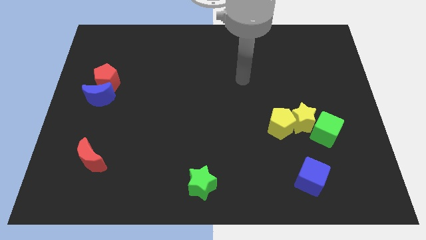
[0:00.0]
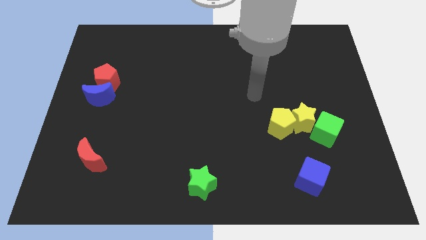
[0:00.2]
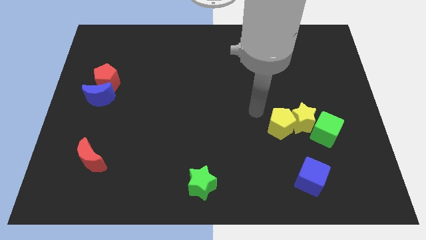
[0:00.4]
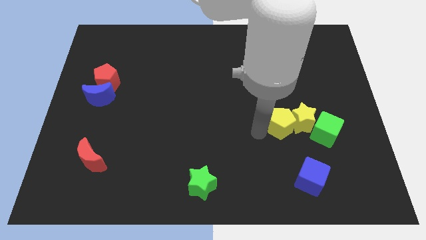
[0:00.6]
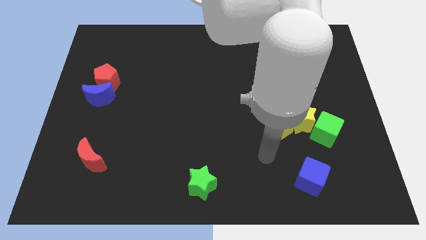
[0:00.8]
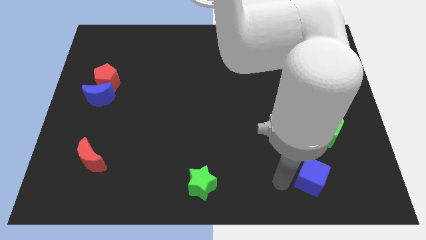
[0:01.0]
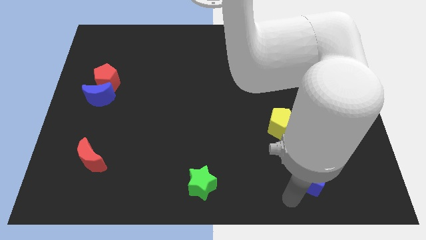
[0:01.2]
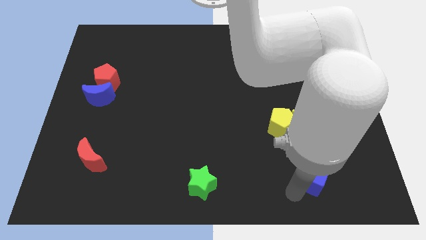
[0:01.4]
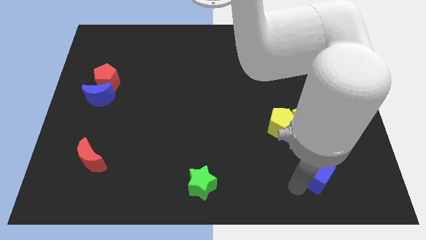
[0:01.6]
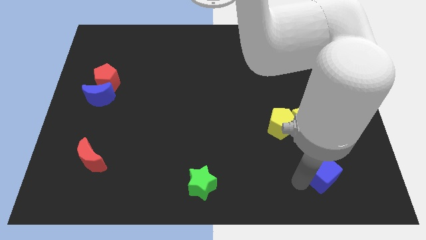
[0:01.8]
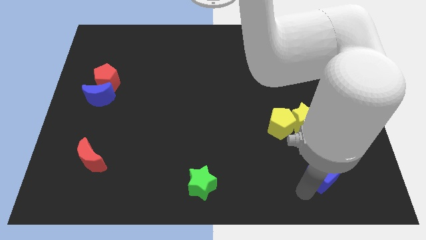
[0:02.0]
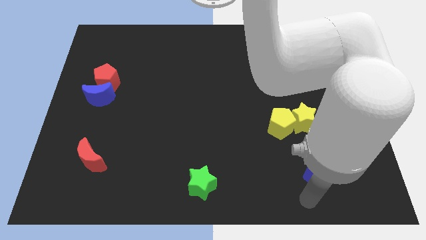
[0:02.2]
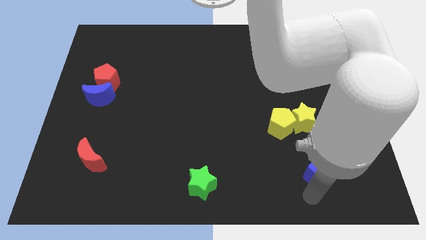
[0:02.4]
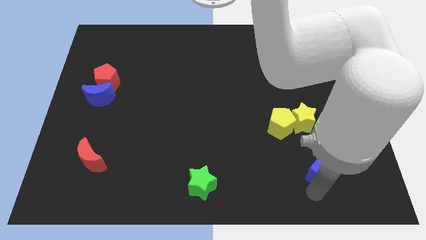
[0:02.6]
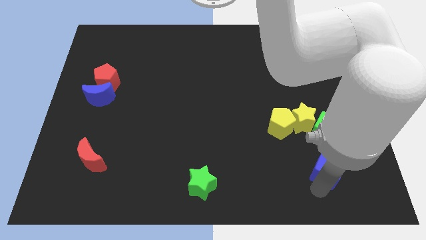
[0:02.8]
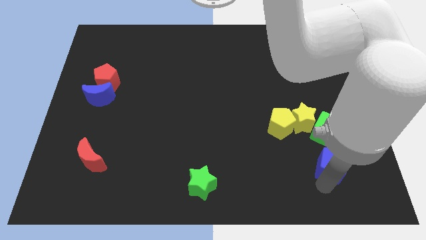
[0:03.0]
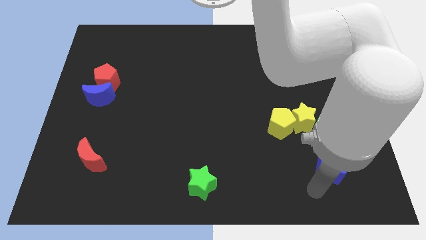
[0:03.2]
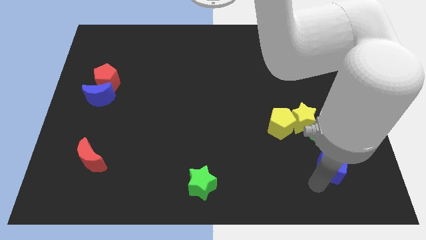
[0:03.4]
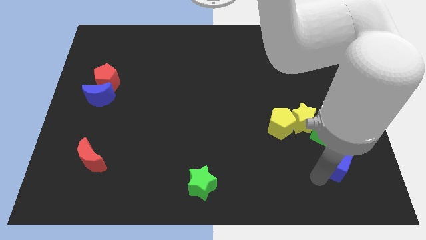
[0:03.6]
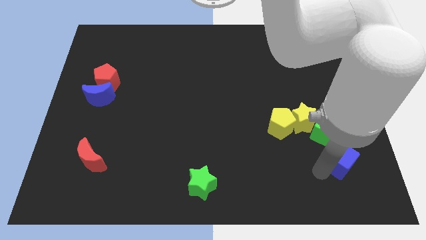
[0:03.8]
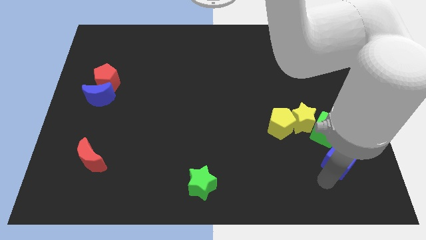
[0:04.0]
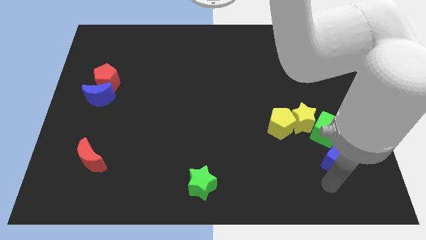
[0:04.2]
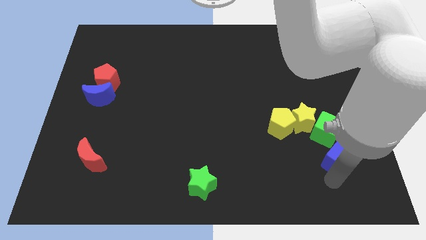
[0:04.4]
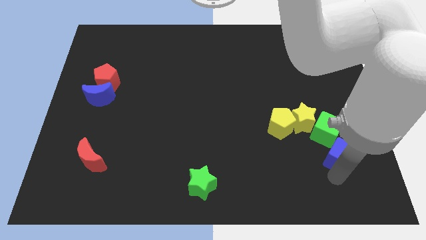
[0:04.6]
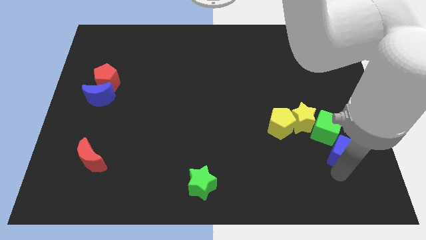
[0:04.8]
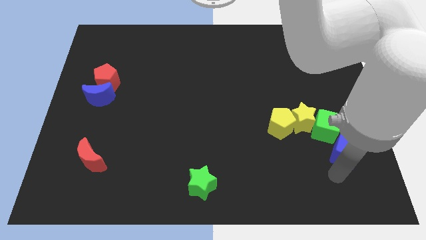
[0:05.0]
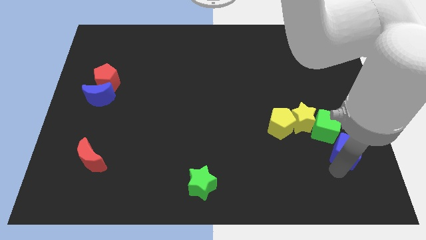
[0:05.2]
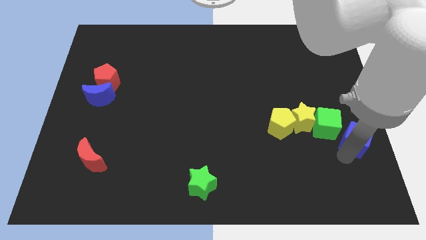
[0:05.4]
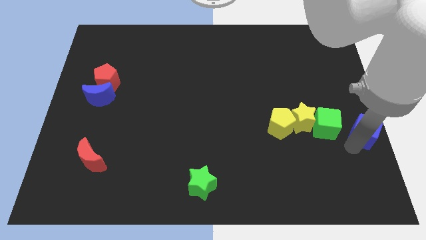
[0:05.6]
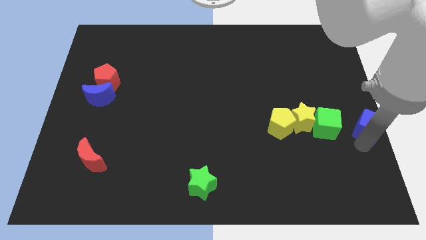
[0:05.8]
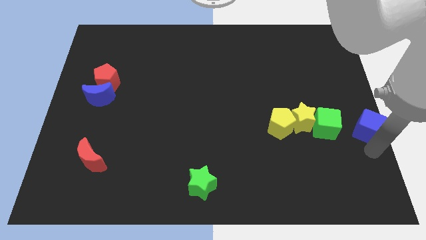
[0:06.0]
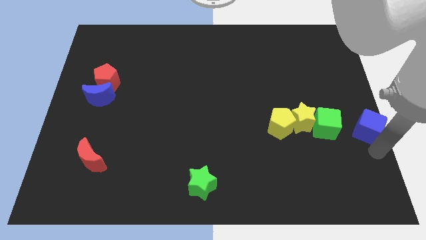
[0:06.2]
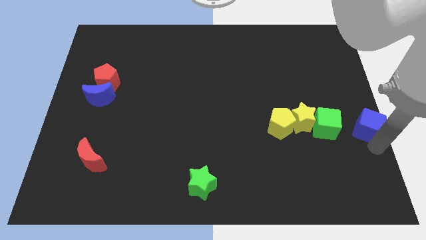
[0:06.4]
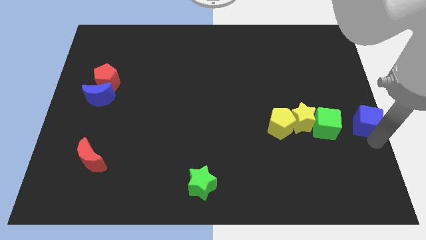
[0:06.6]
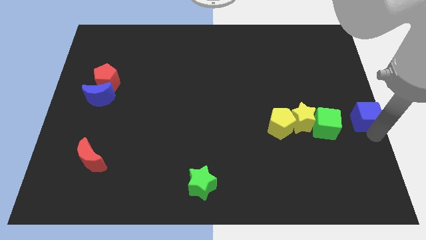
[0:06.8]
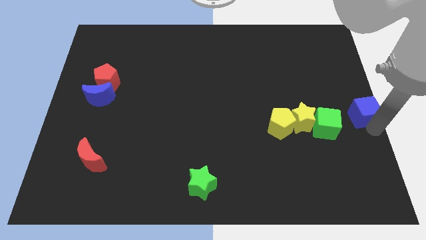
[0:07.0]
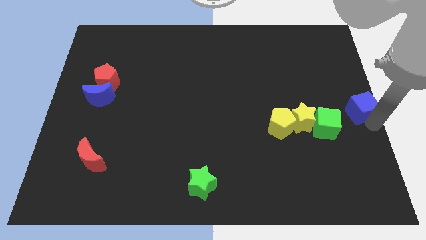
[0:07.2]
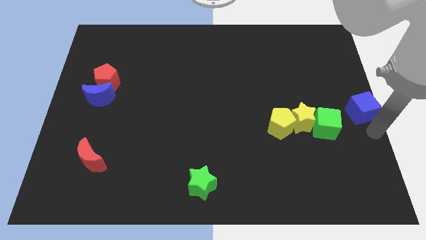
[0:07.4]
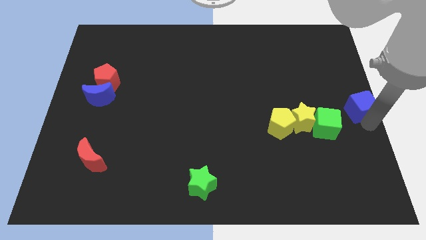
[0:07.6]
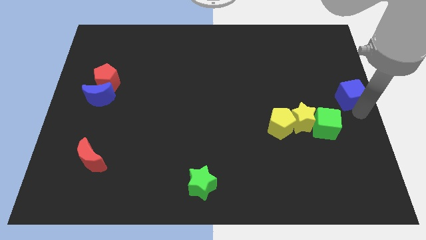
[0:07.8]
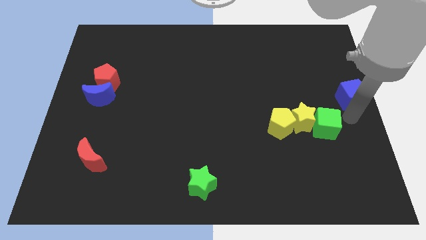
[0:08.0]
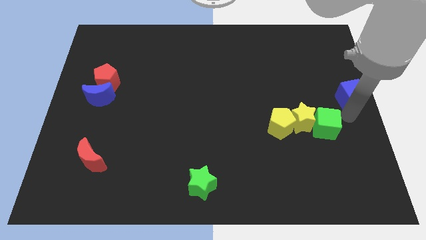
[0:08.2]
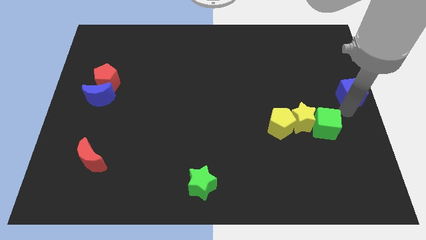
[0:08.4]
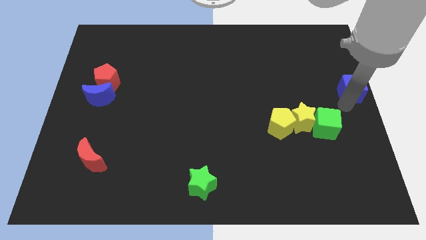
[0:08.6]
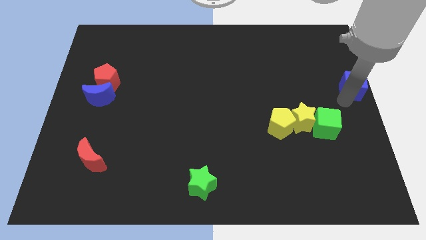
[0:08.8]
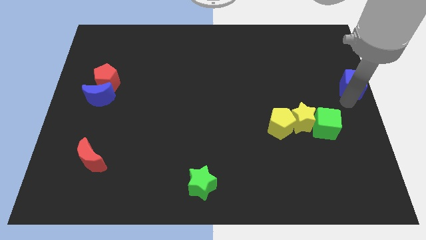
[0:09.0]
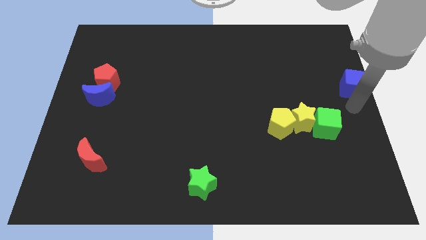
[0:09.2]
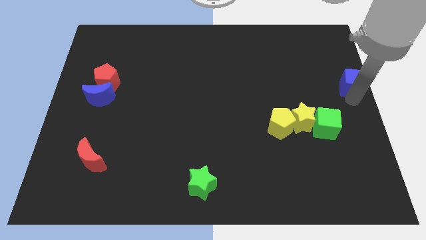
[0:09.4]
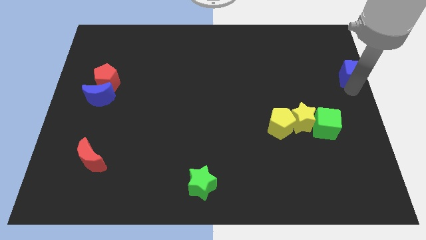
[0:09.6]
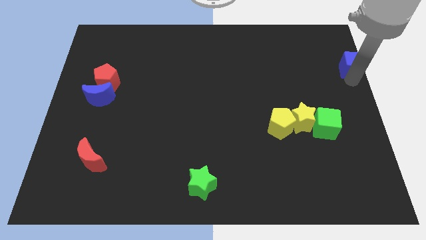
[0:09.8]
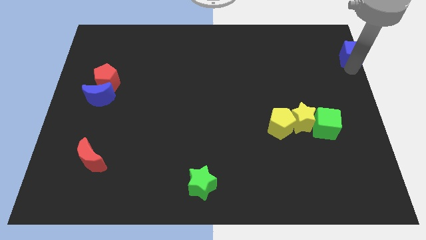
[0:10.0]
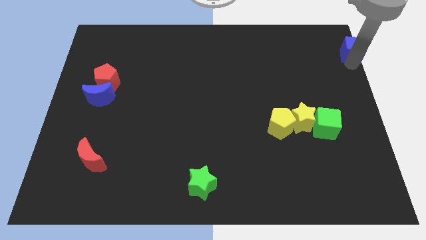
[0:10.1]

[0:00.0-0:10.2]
slide the blue cube to the upper right corner

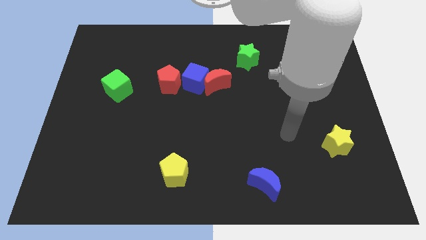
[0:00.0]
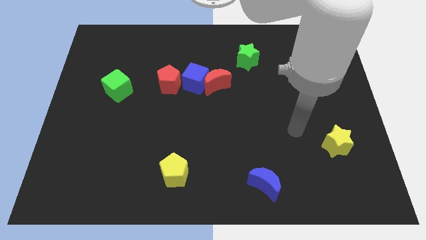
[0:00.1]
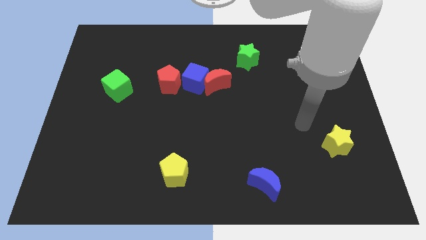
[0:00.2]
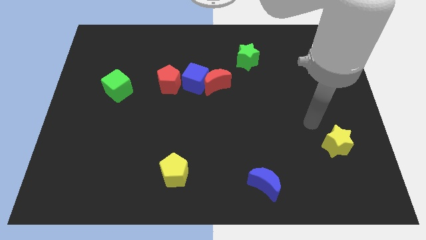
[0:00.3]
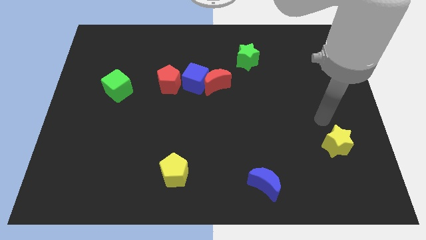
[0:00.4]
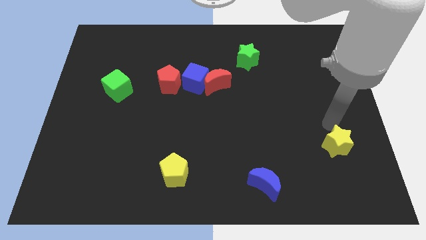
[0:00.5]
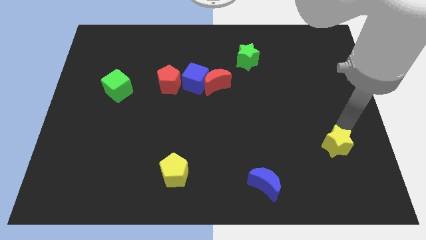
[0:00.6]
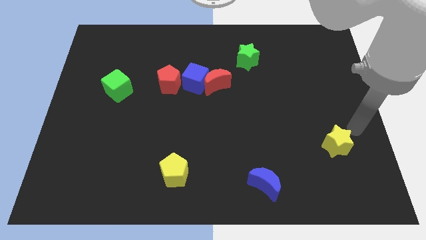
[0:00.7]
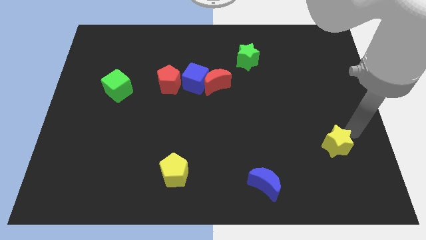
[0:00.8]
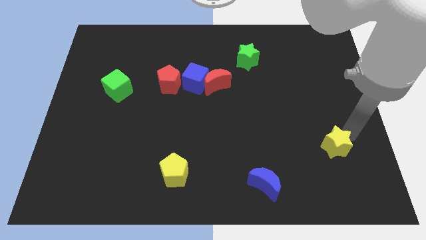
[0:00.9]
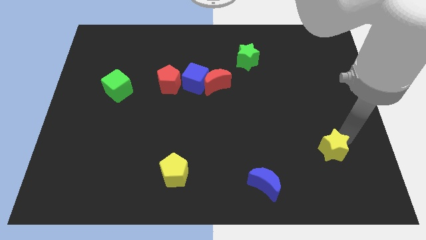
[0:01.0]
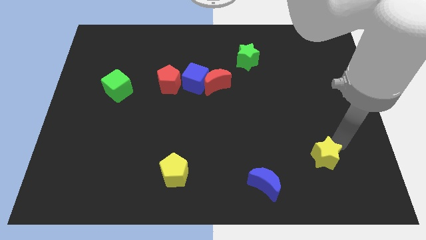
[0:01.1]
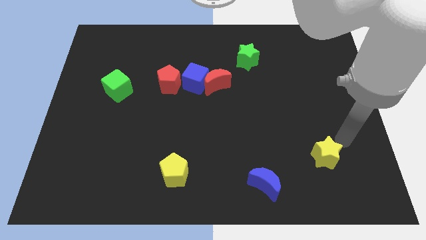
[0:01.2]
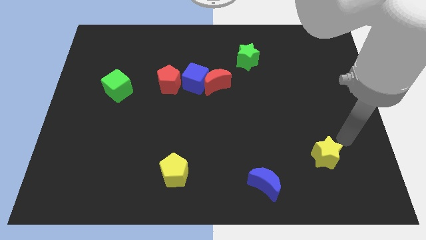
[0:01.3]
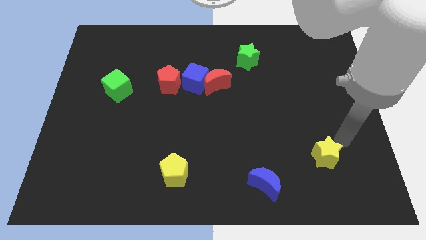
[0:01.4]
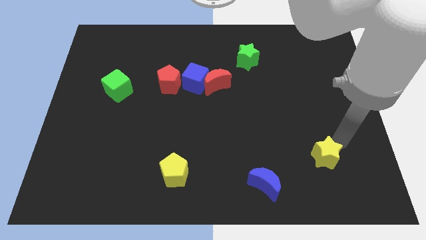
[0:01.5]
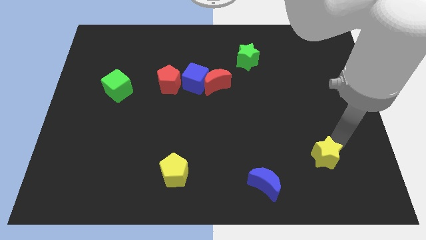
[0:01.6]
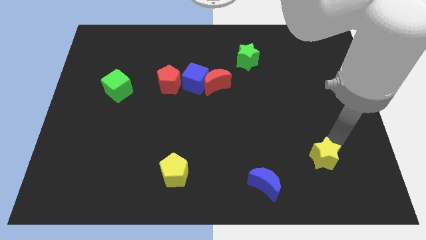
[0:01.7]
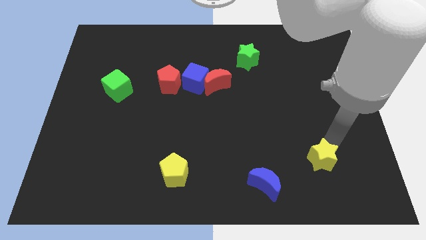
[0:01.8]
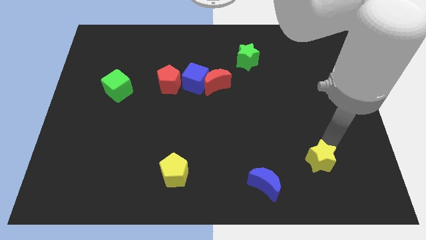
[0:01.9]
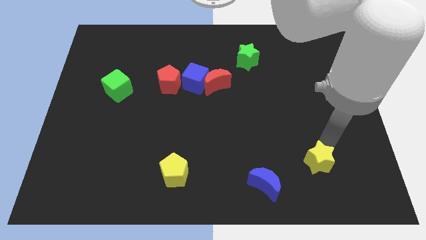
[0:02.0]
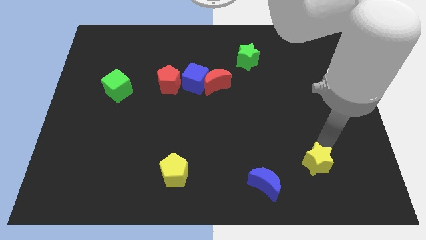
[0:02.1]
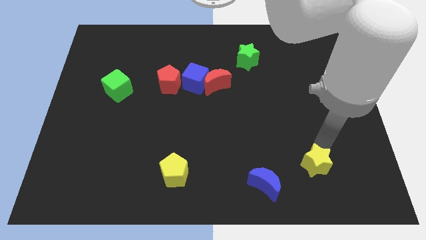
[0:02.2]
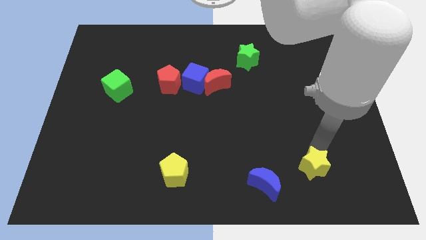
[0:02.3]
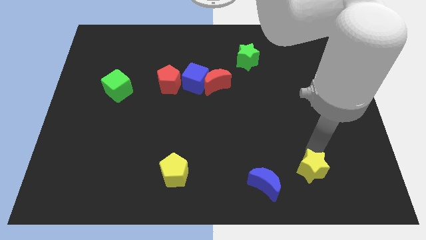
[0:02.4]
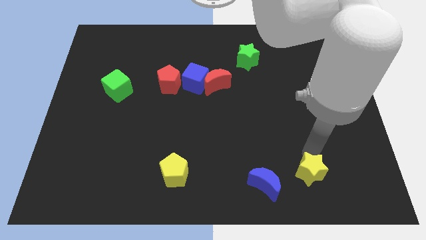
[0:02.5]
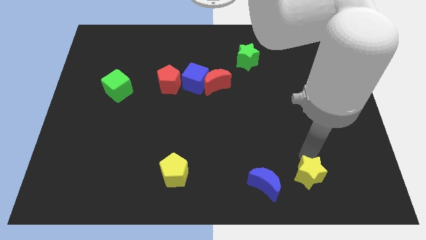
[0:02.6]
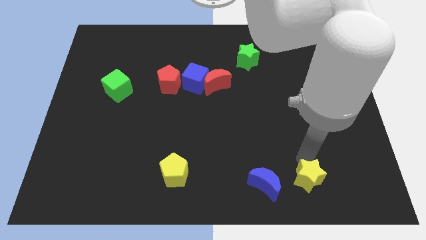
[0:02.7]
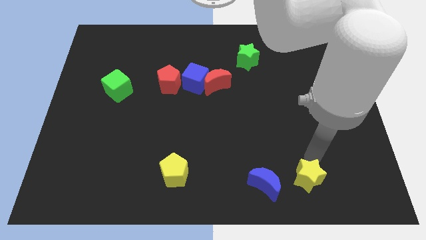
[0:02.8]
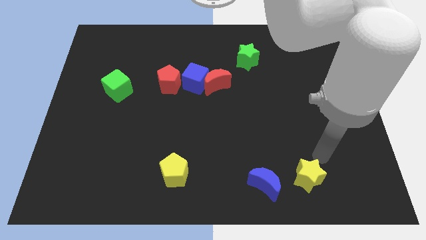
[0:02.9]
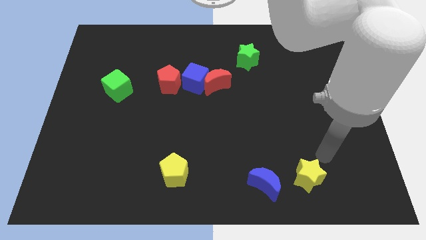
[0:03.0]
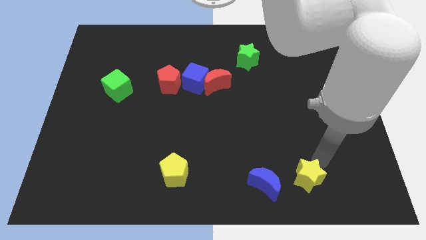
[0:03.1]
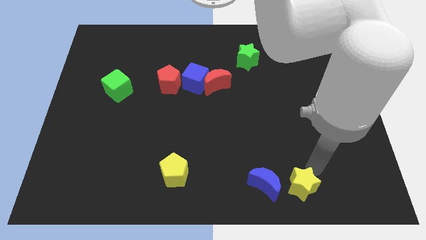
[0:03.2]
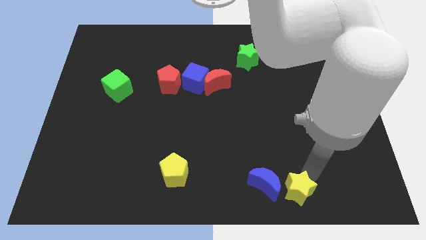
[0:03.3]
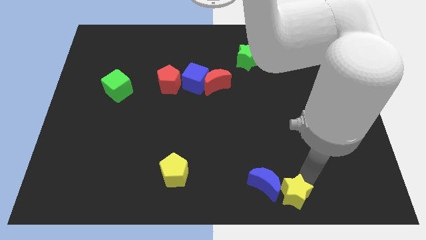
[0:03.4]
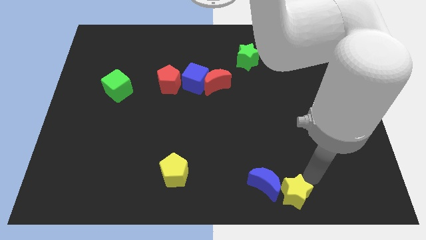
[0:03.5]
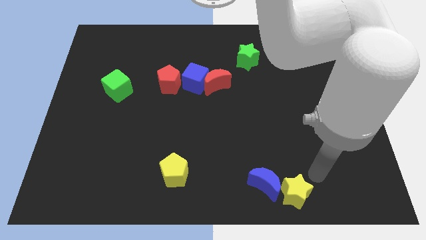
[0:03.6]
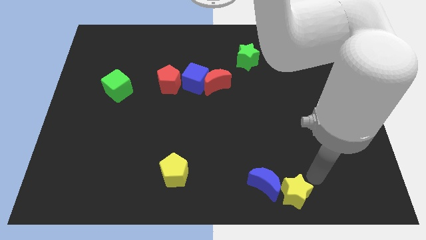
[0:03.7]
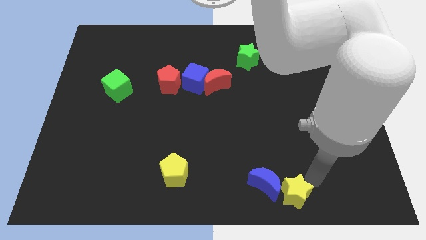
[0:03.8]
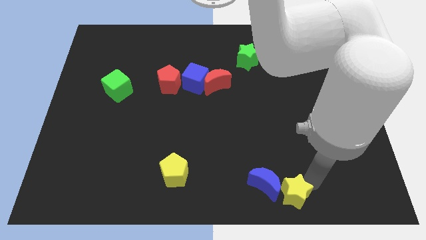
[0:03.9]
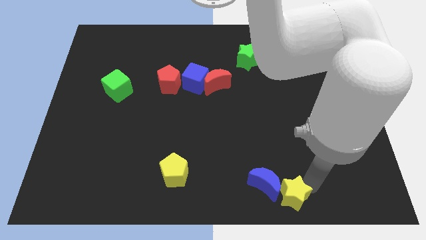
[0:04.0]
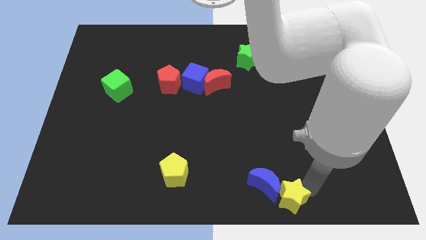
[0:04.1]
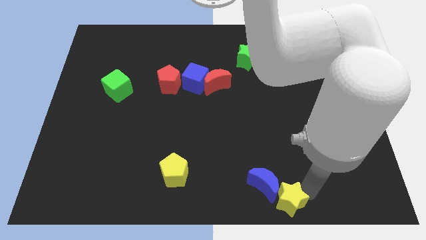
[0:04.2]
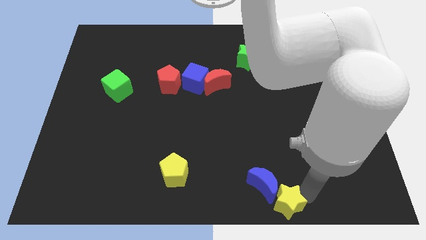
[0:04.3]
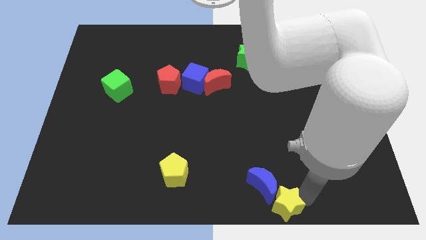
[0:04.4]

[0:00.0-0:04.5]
slide the yellow star to the bottom side
